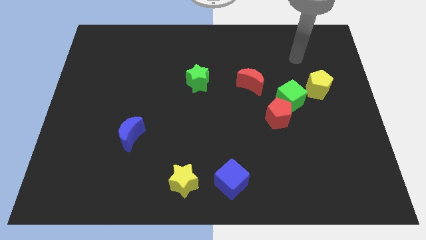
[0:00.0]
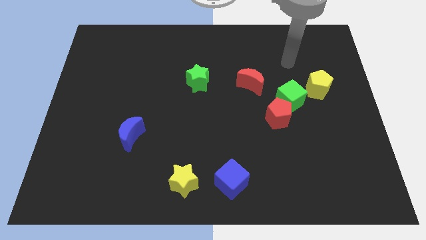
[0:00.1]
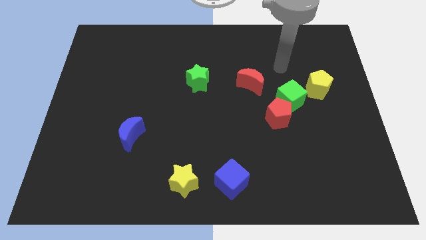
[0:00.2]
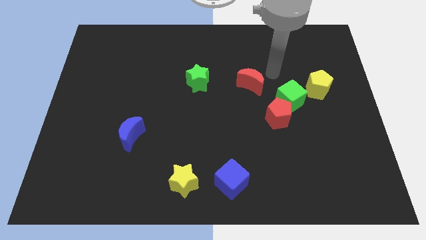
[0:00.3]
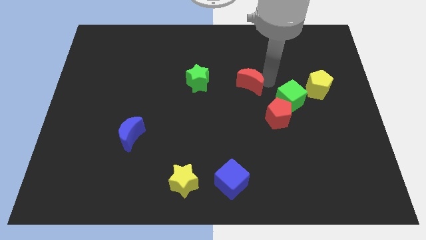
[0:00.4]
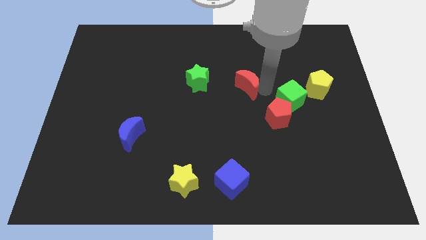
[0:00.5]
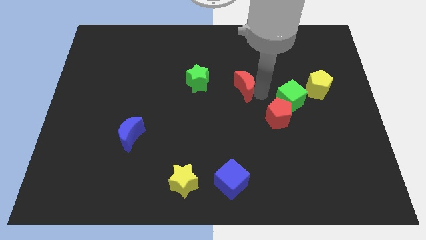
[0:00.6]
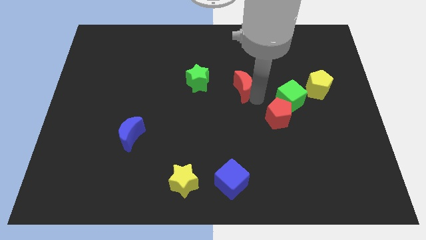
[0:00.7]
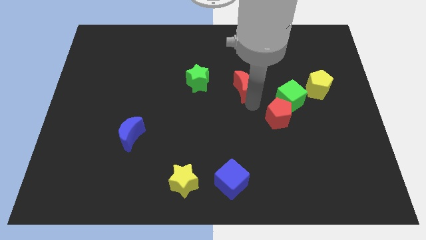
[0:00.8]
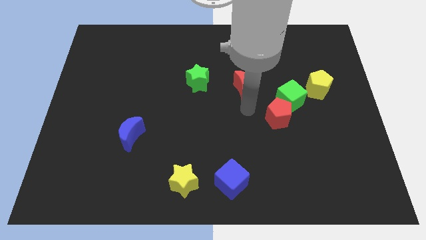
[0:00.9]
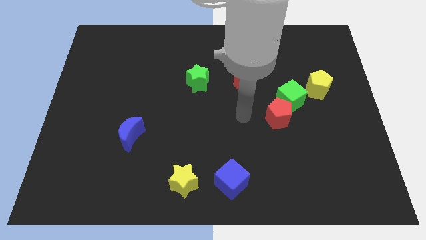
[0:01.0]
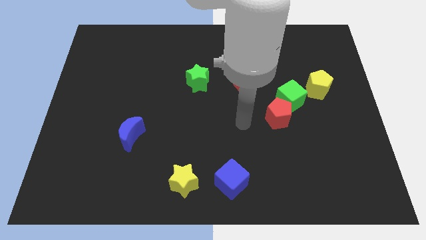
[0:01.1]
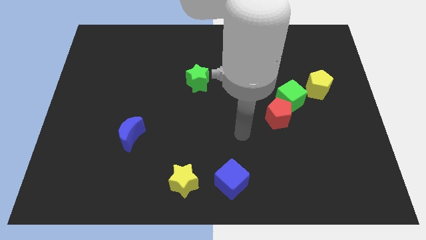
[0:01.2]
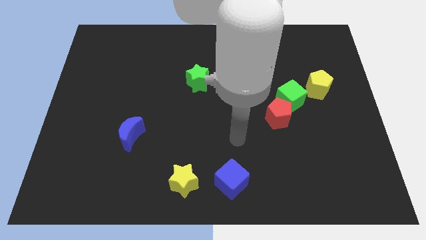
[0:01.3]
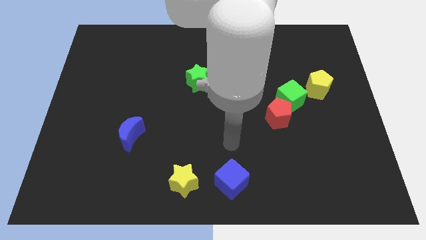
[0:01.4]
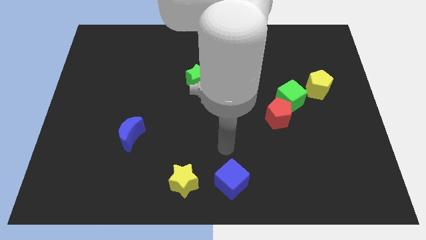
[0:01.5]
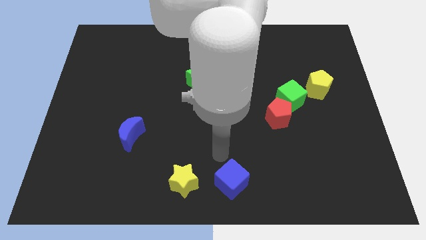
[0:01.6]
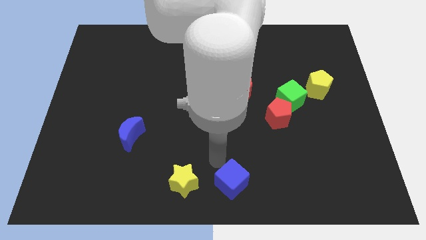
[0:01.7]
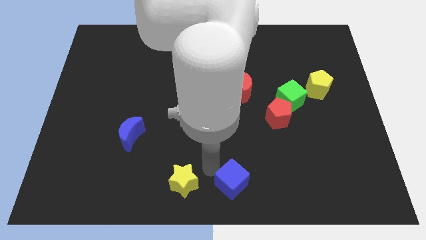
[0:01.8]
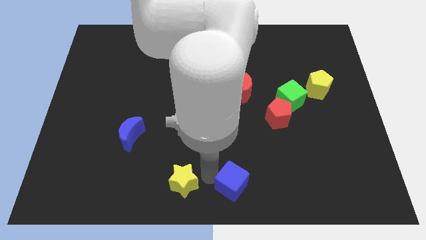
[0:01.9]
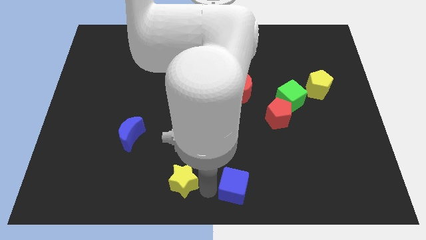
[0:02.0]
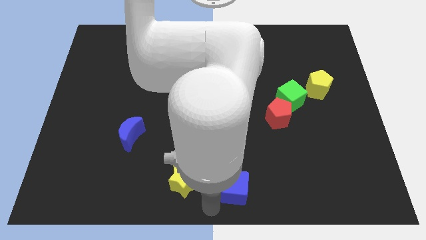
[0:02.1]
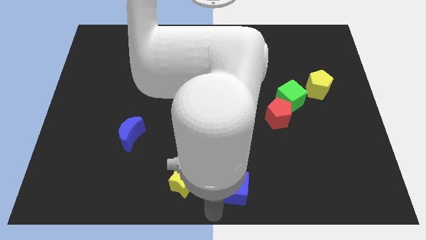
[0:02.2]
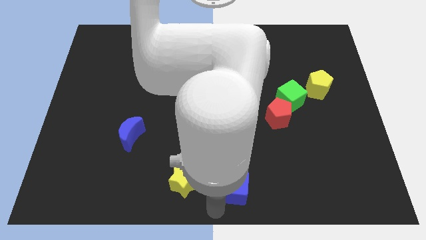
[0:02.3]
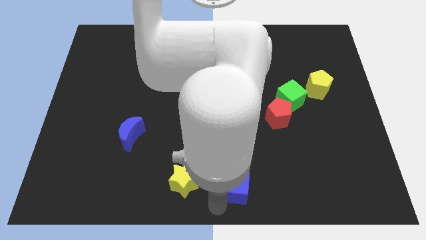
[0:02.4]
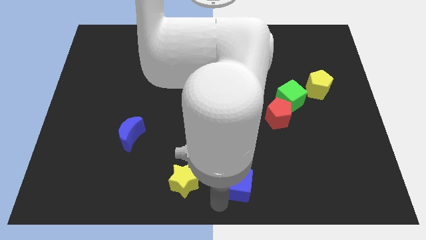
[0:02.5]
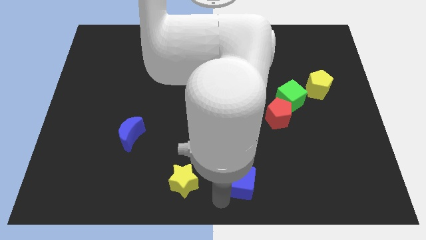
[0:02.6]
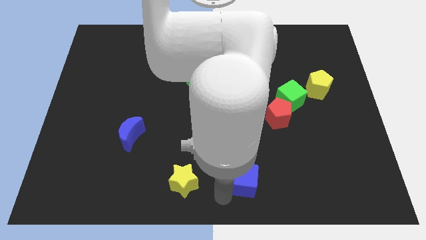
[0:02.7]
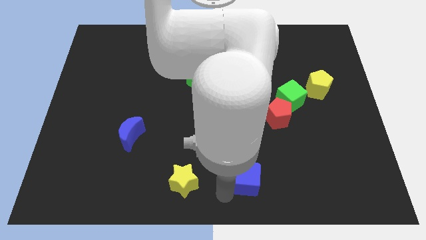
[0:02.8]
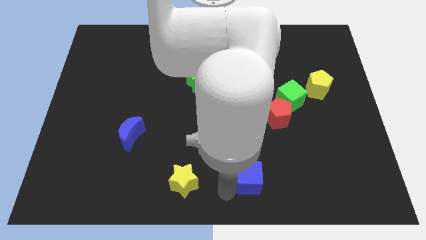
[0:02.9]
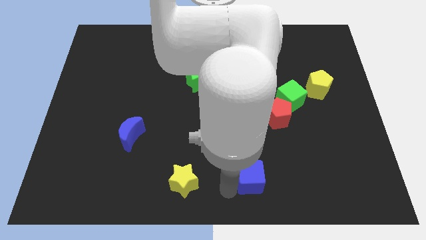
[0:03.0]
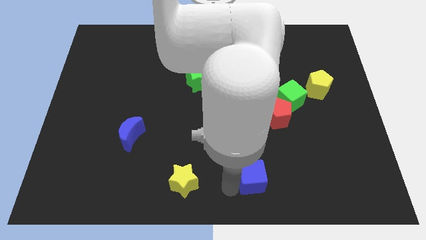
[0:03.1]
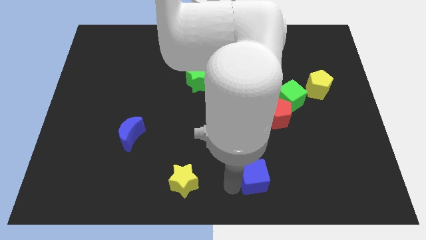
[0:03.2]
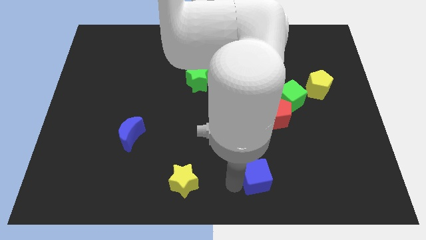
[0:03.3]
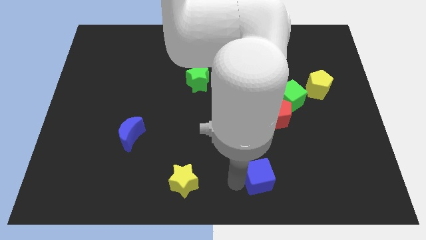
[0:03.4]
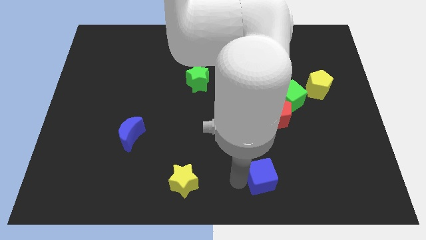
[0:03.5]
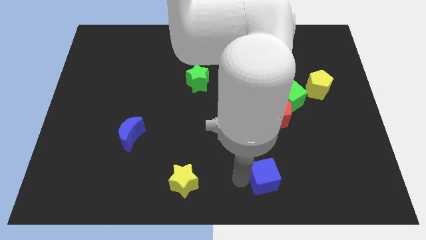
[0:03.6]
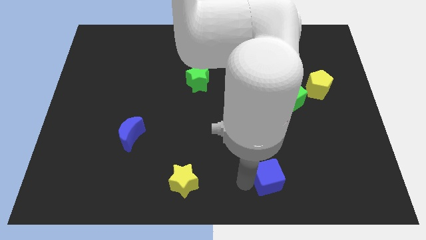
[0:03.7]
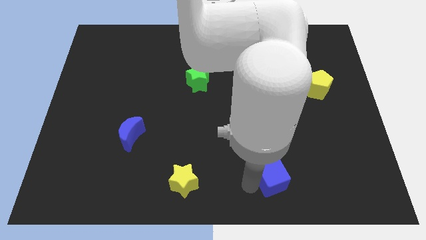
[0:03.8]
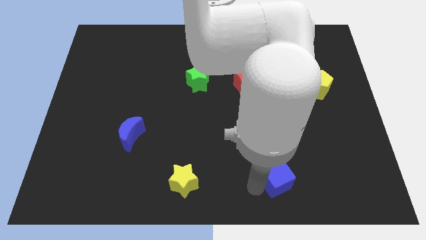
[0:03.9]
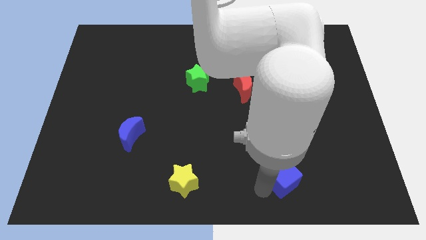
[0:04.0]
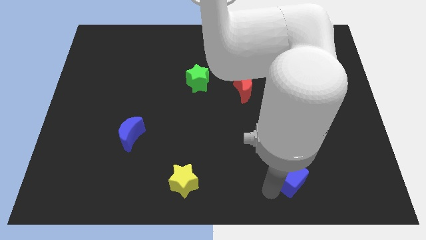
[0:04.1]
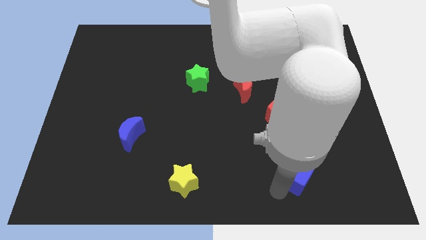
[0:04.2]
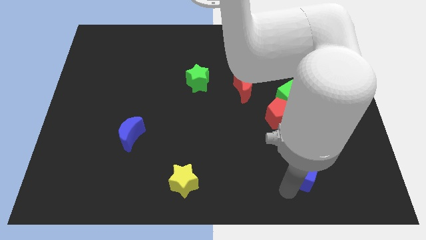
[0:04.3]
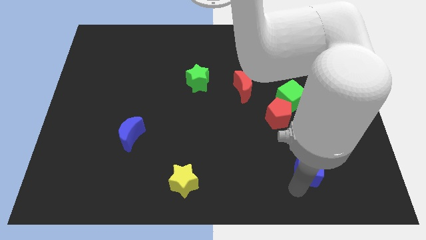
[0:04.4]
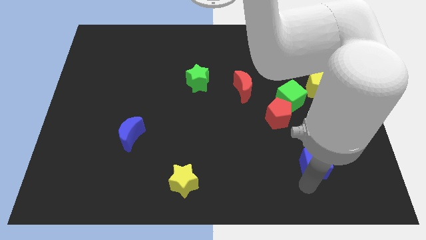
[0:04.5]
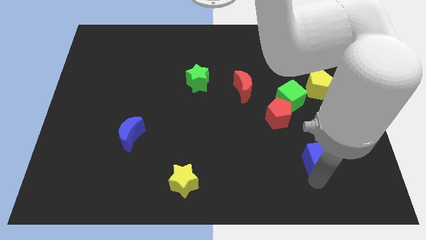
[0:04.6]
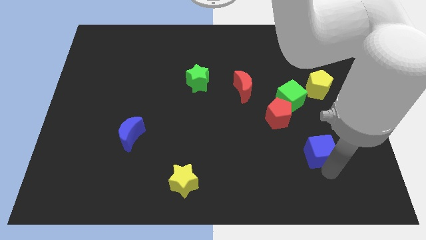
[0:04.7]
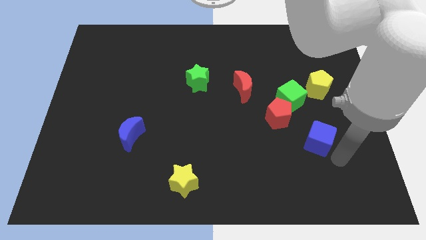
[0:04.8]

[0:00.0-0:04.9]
move the blue cube to the bottom of the green cube

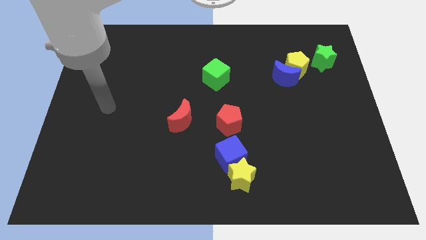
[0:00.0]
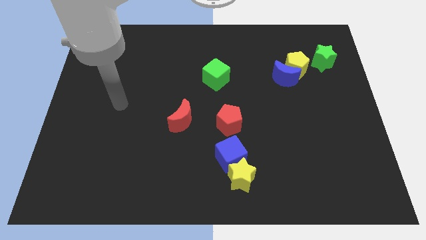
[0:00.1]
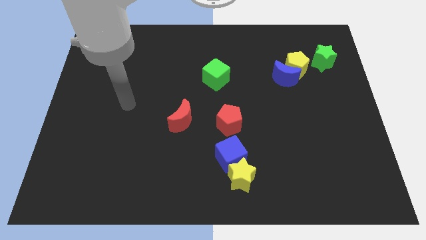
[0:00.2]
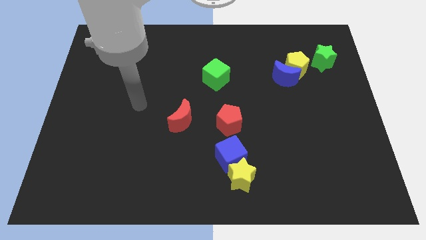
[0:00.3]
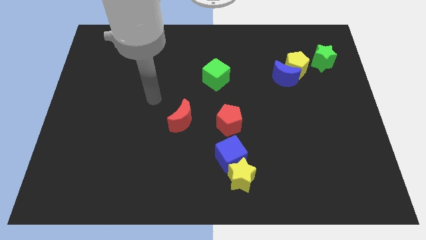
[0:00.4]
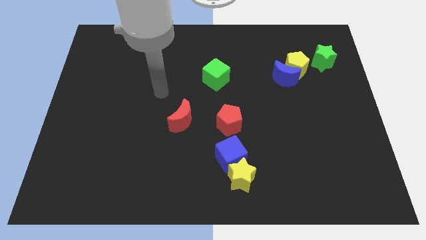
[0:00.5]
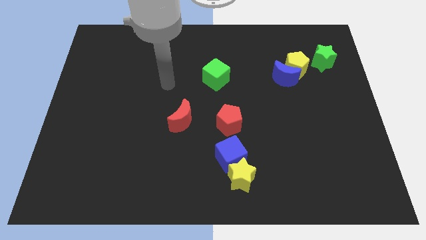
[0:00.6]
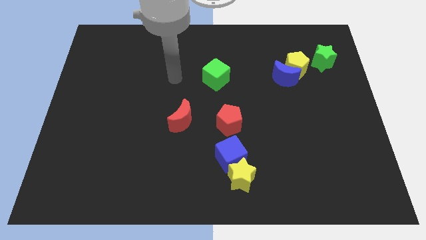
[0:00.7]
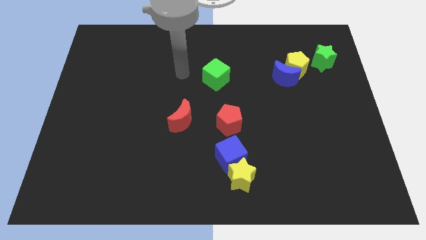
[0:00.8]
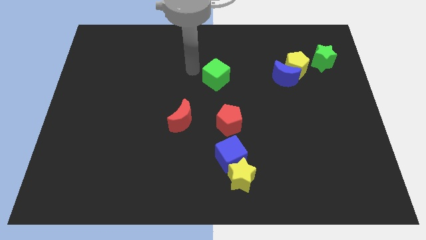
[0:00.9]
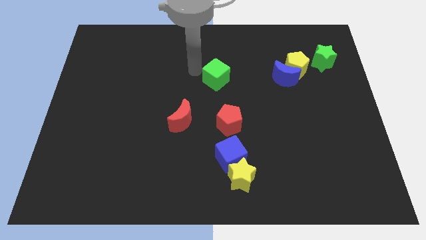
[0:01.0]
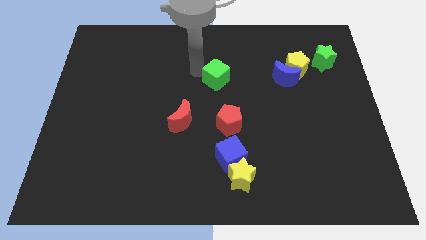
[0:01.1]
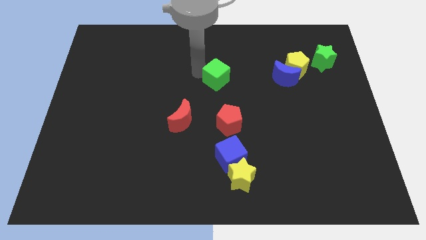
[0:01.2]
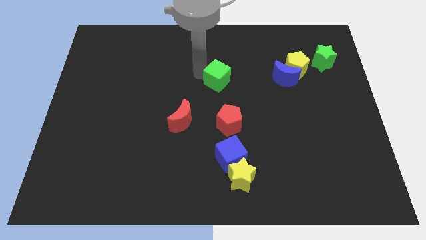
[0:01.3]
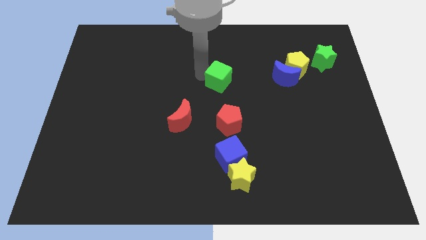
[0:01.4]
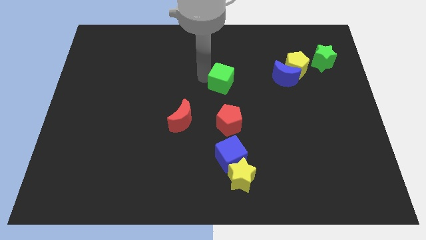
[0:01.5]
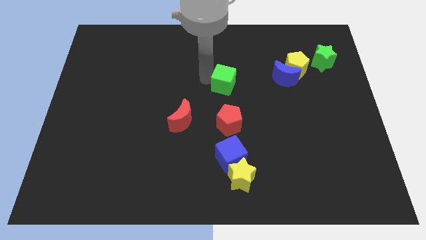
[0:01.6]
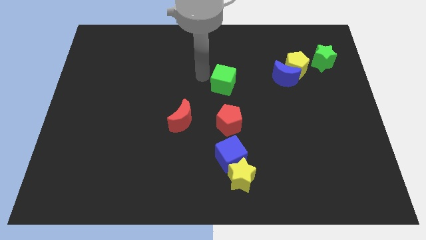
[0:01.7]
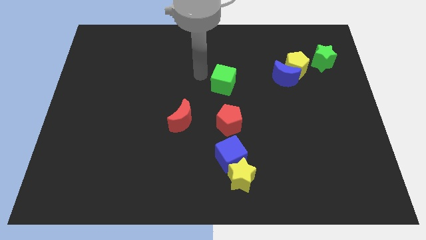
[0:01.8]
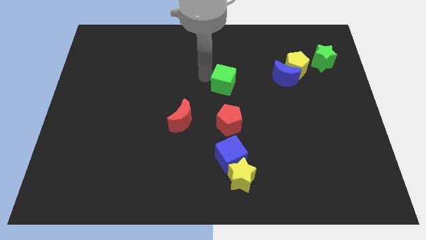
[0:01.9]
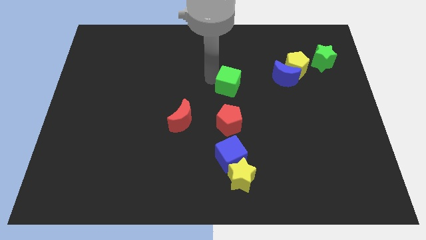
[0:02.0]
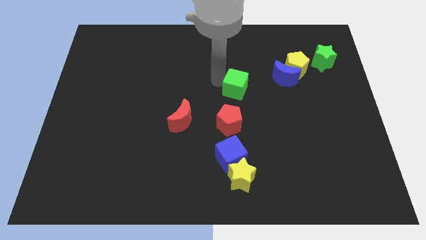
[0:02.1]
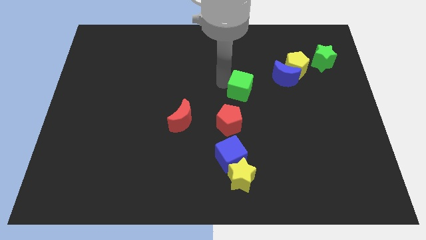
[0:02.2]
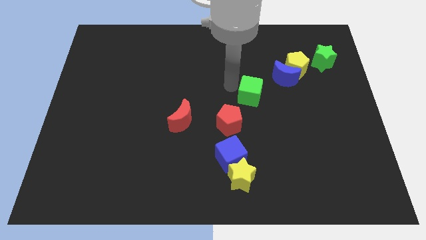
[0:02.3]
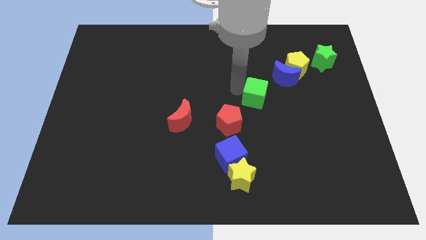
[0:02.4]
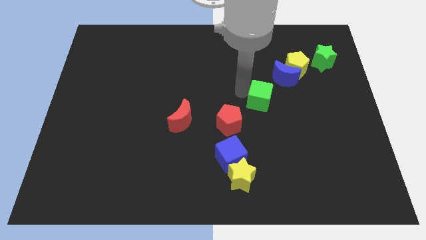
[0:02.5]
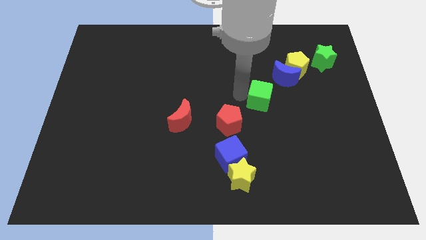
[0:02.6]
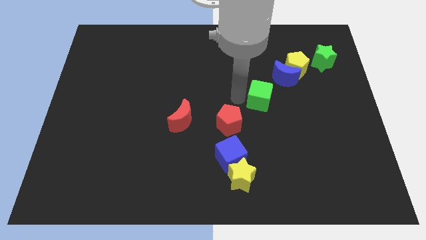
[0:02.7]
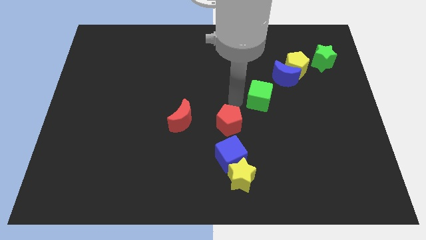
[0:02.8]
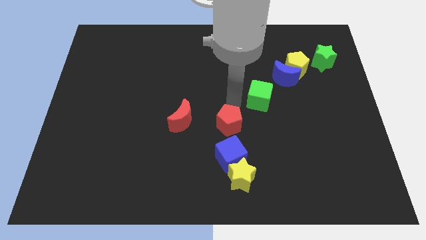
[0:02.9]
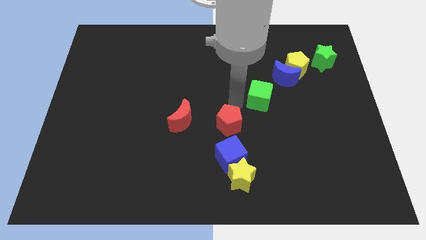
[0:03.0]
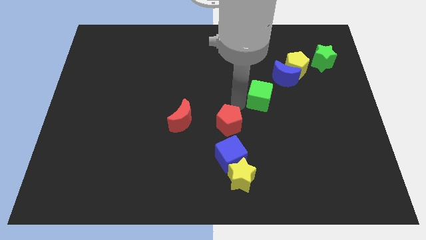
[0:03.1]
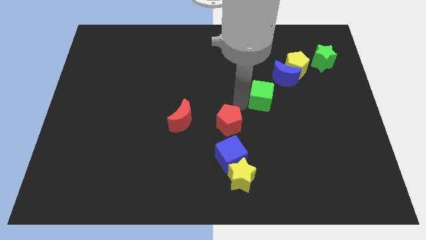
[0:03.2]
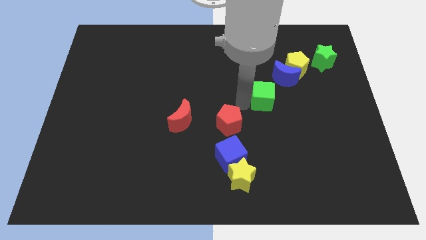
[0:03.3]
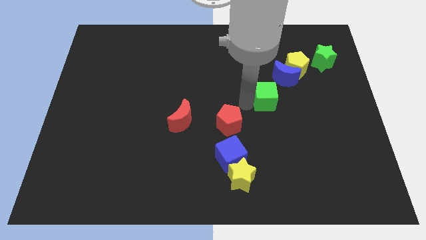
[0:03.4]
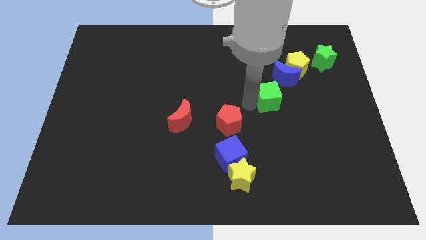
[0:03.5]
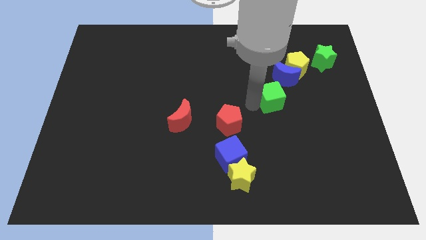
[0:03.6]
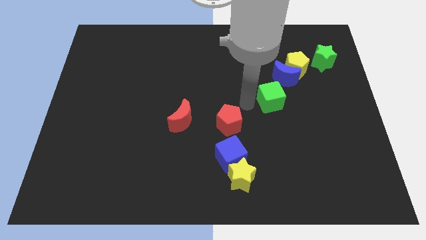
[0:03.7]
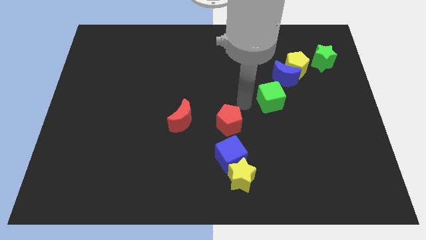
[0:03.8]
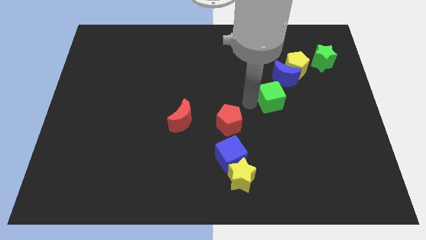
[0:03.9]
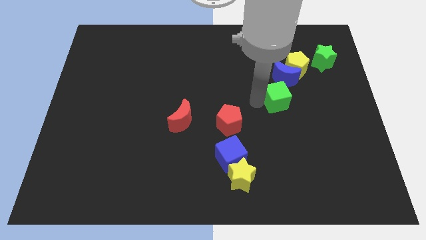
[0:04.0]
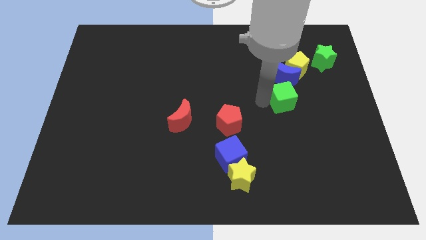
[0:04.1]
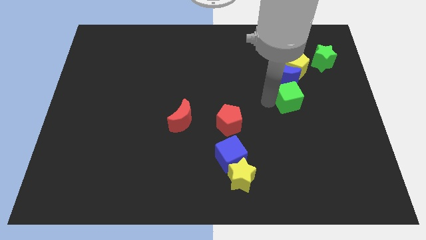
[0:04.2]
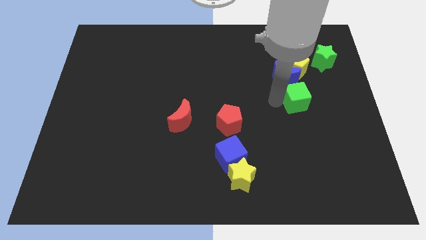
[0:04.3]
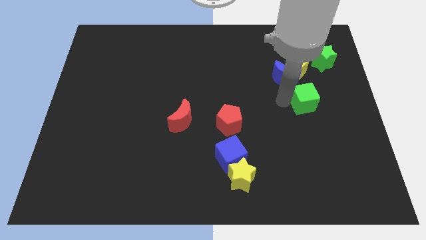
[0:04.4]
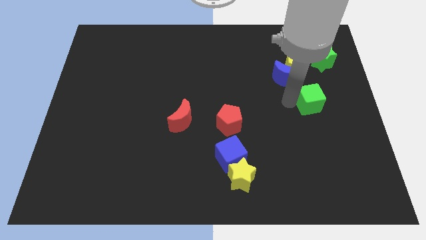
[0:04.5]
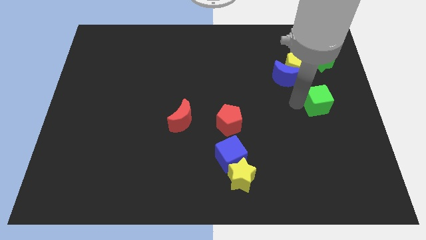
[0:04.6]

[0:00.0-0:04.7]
push the green cube below the green star
